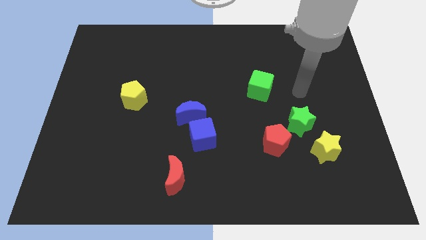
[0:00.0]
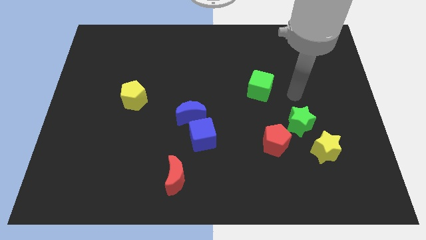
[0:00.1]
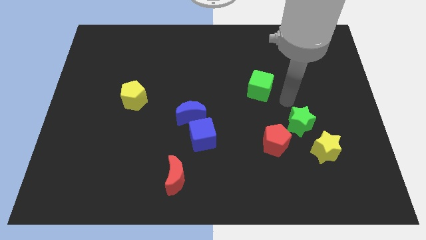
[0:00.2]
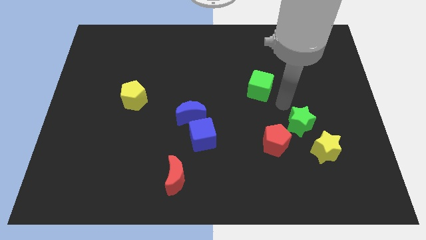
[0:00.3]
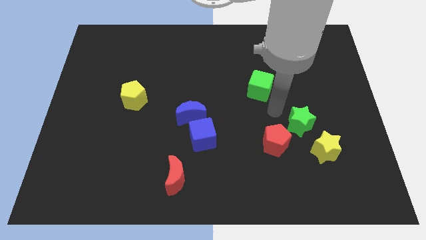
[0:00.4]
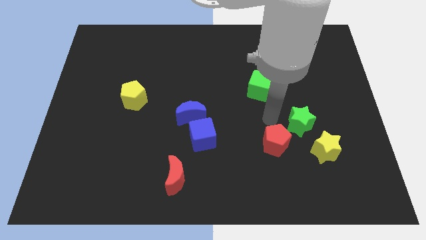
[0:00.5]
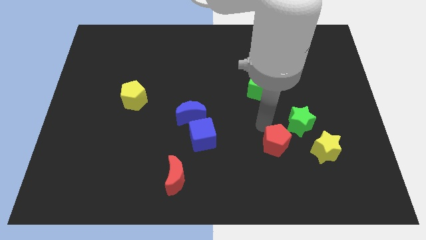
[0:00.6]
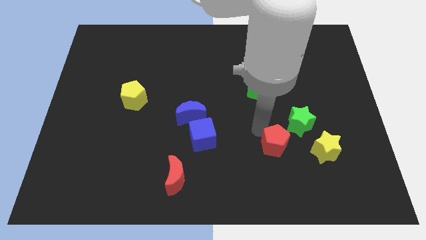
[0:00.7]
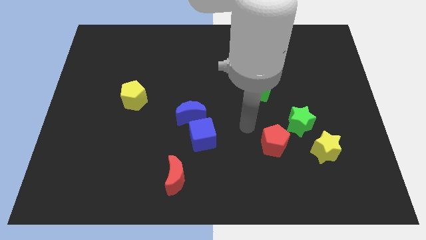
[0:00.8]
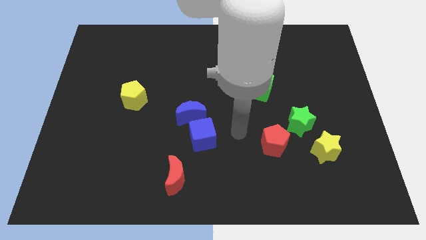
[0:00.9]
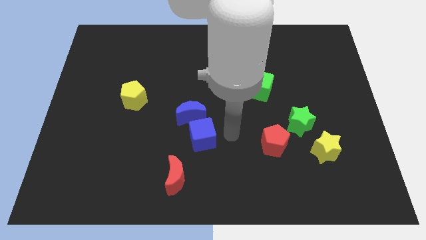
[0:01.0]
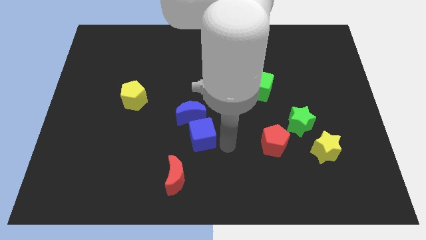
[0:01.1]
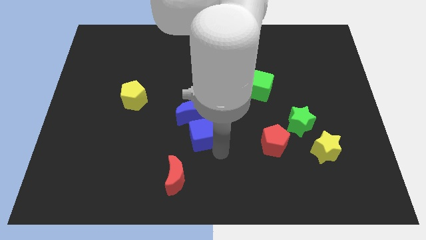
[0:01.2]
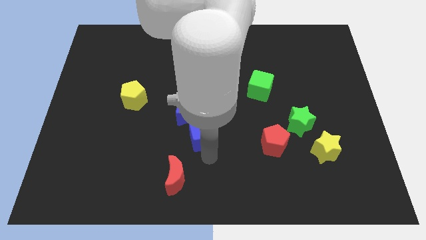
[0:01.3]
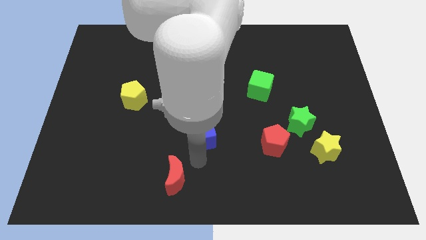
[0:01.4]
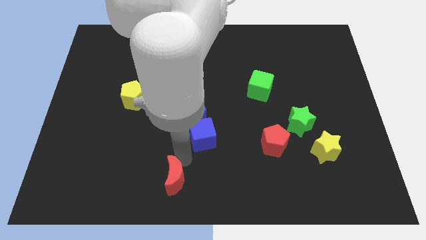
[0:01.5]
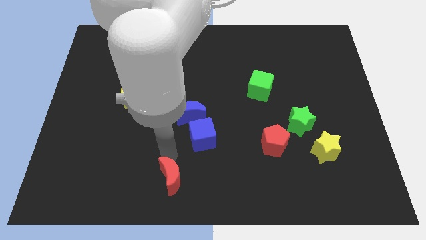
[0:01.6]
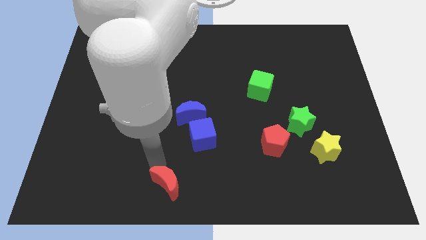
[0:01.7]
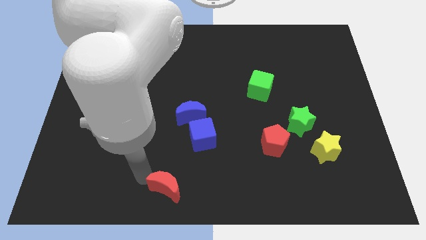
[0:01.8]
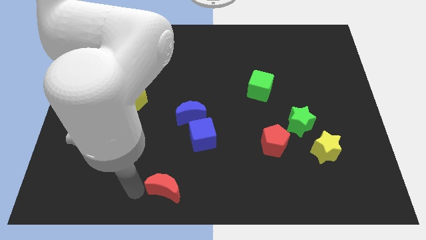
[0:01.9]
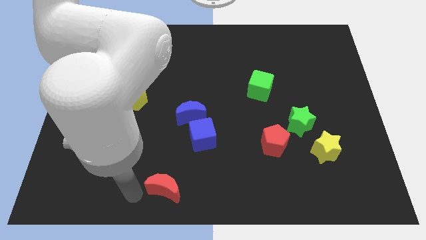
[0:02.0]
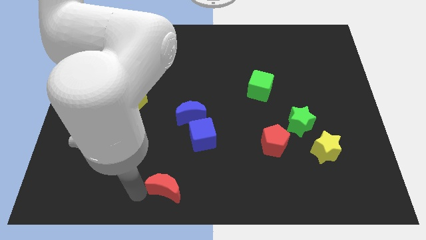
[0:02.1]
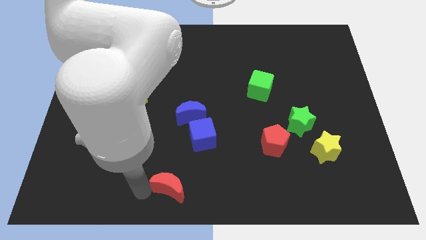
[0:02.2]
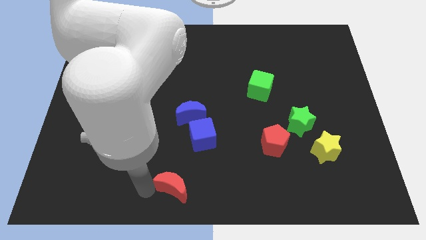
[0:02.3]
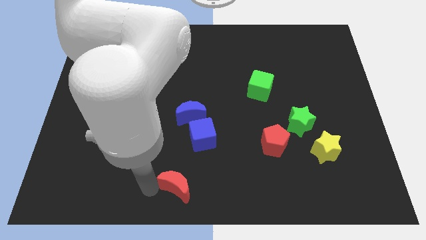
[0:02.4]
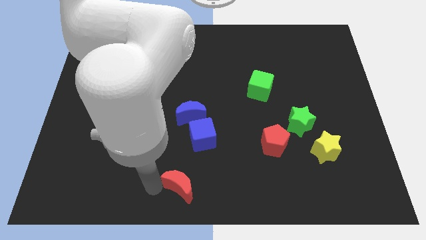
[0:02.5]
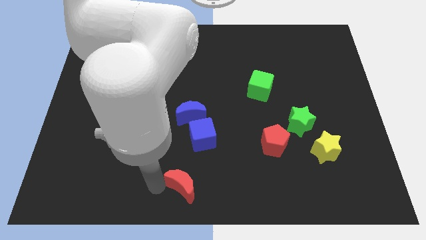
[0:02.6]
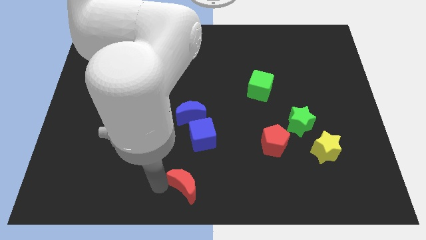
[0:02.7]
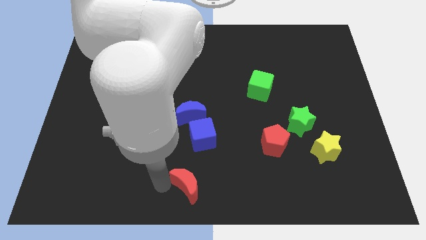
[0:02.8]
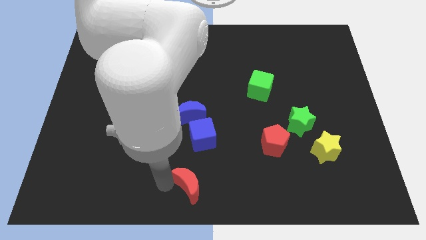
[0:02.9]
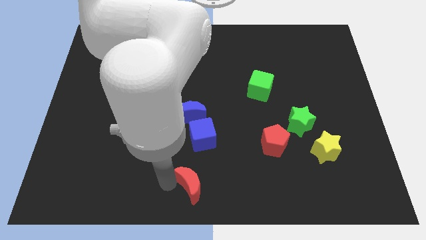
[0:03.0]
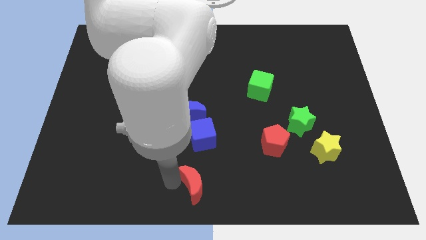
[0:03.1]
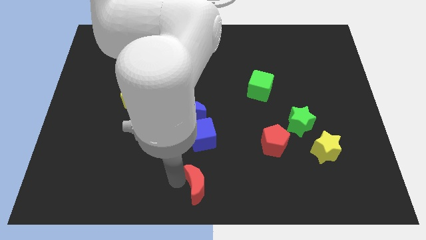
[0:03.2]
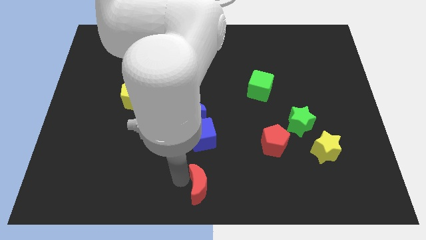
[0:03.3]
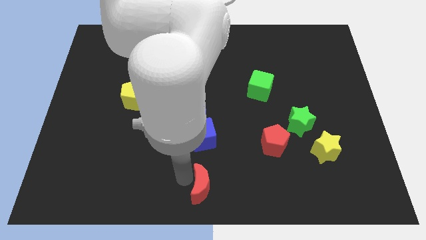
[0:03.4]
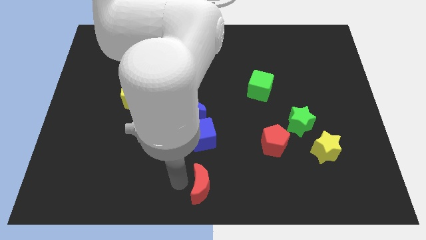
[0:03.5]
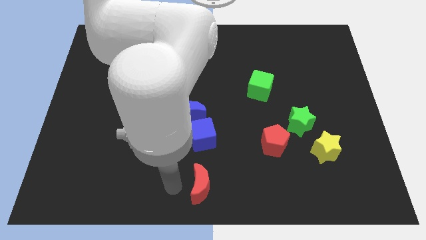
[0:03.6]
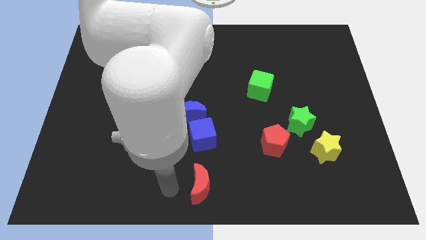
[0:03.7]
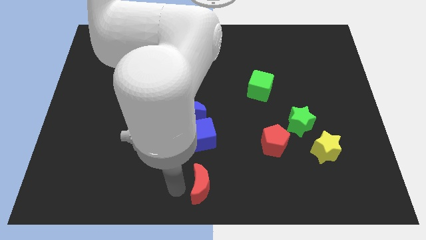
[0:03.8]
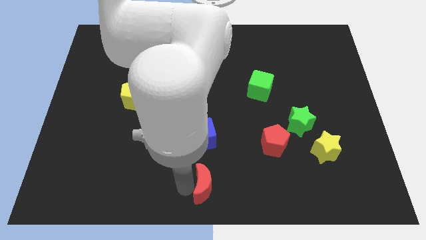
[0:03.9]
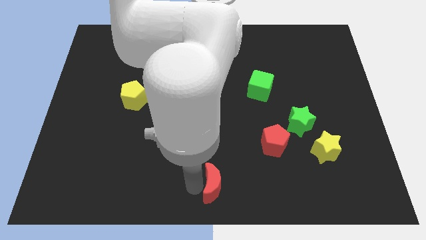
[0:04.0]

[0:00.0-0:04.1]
move the red moon somewhat to the right

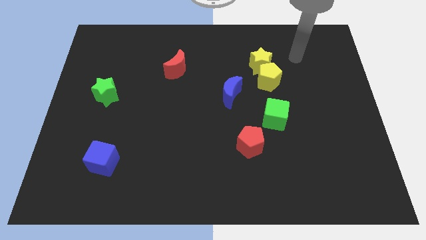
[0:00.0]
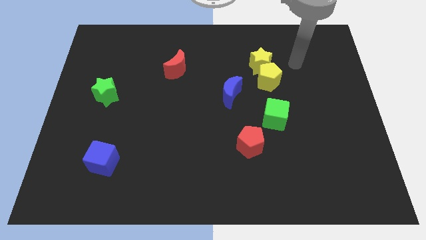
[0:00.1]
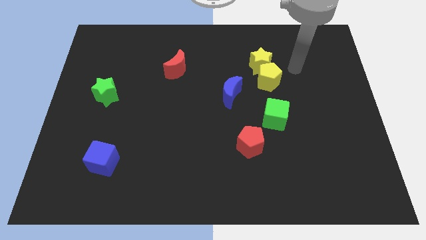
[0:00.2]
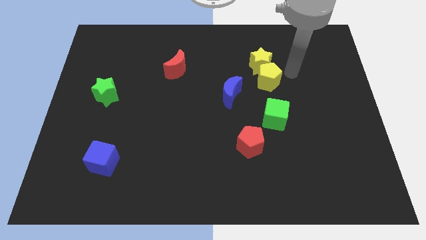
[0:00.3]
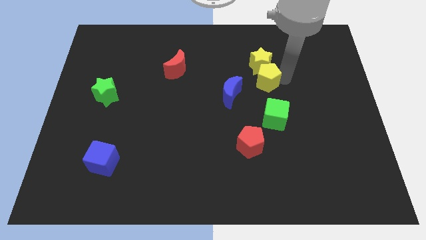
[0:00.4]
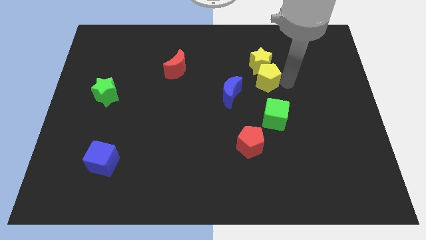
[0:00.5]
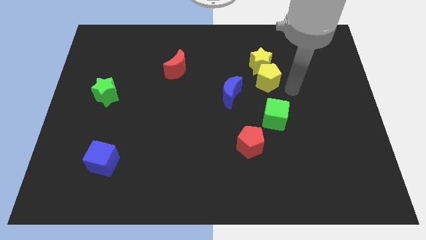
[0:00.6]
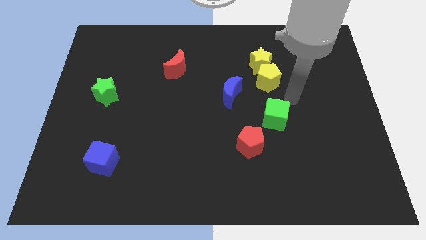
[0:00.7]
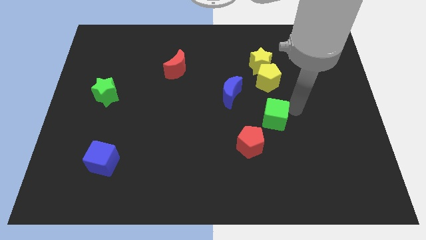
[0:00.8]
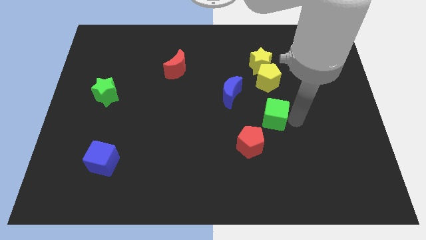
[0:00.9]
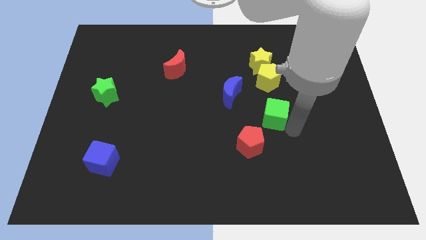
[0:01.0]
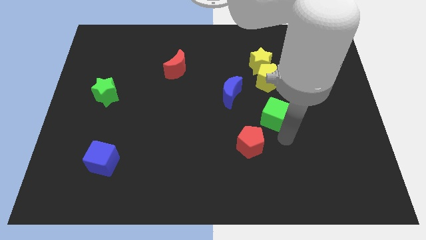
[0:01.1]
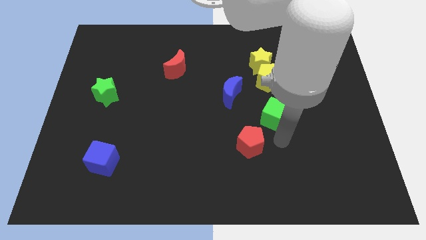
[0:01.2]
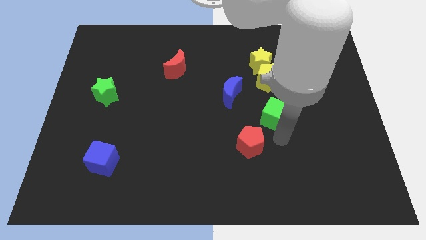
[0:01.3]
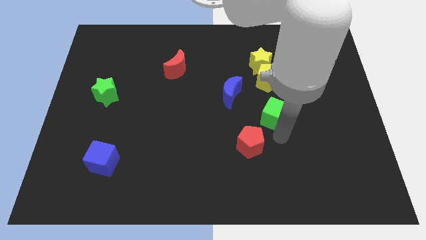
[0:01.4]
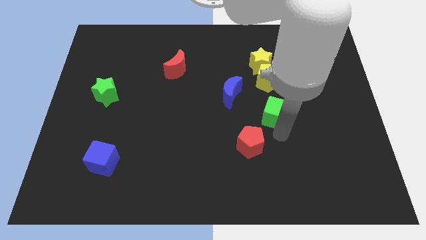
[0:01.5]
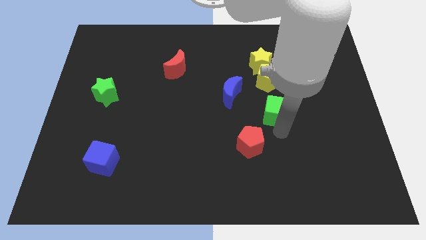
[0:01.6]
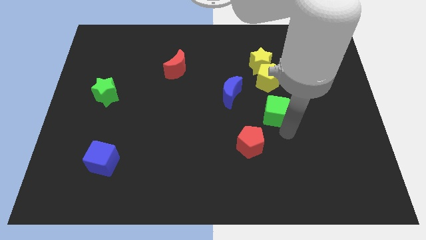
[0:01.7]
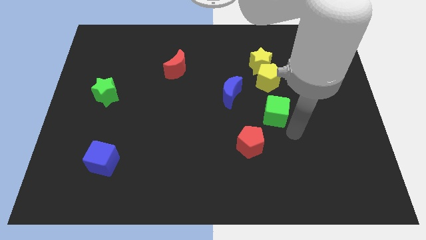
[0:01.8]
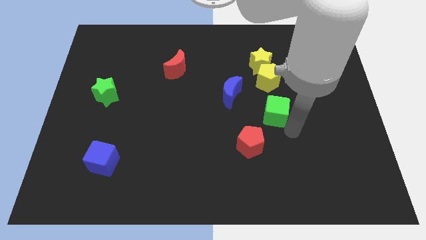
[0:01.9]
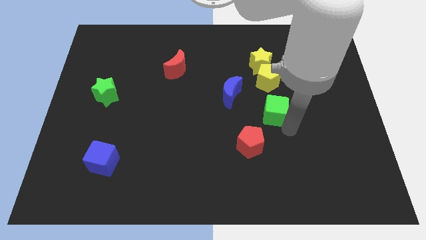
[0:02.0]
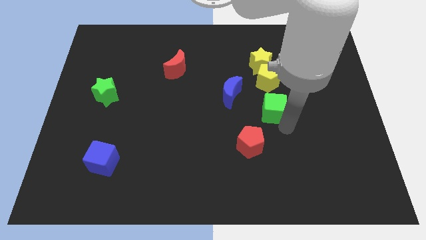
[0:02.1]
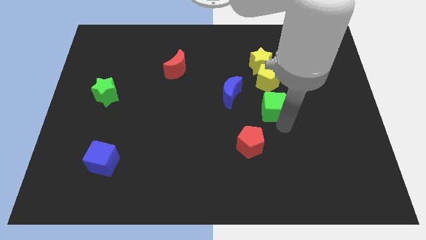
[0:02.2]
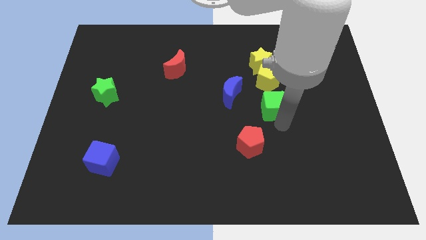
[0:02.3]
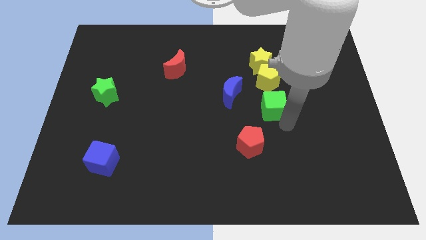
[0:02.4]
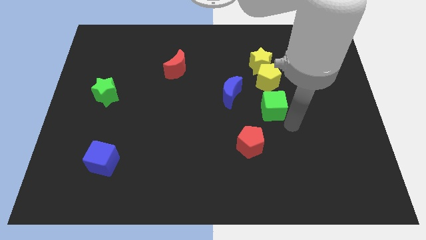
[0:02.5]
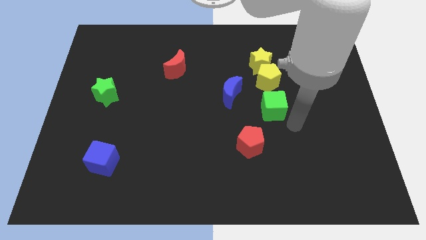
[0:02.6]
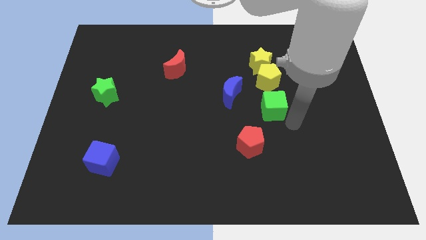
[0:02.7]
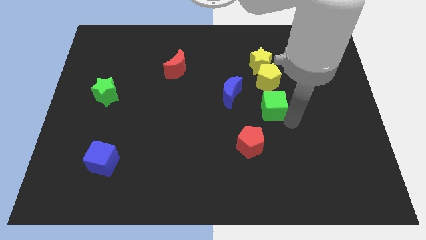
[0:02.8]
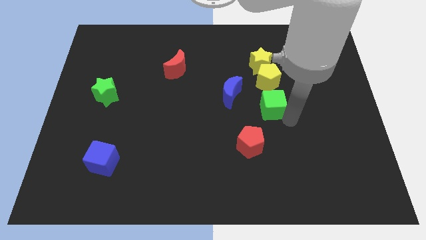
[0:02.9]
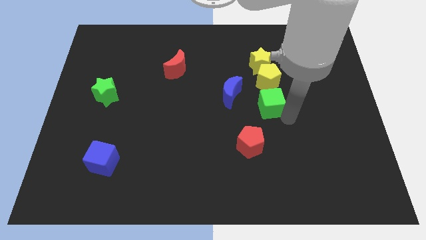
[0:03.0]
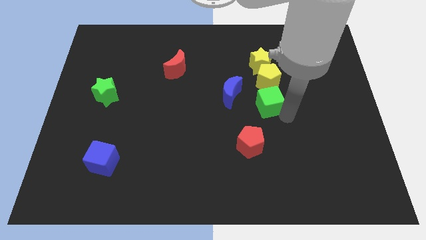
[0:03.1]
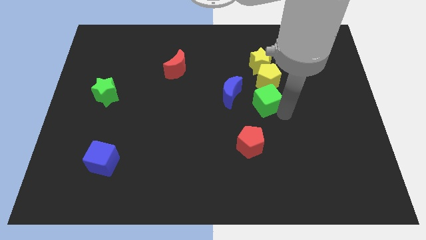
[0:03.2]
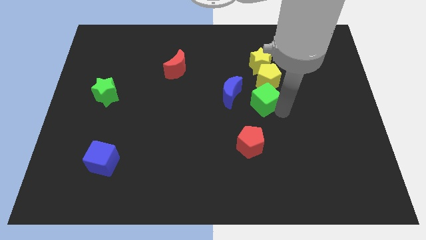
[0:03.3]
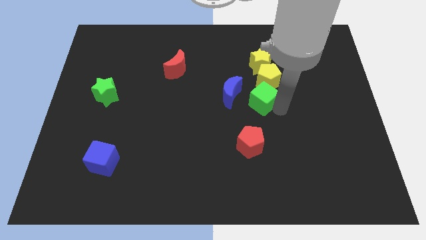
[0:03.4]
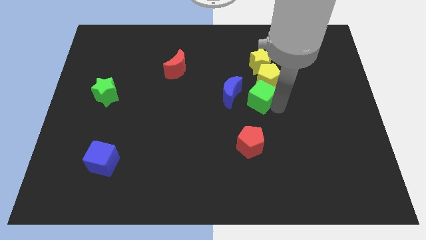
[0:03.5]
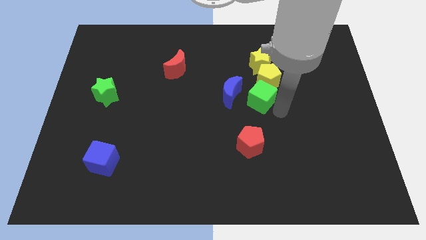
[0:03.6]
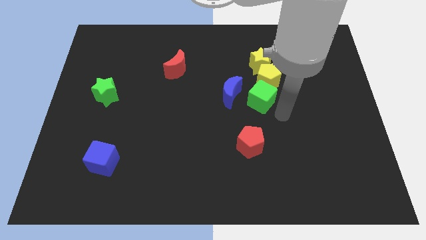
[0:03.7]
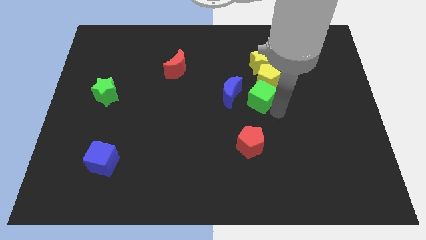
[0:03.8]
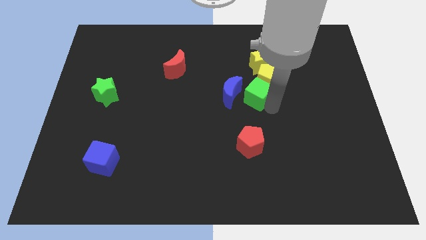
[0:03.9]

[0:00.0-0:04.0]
slide the green cube upwards and left diagonally a little bit
